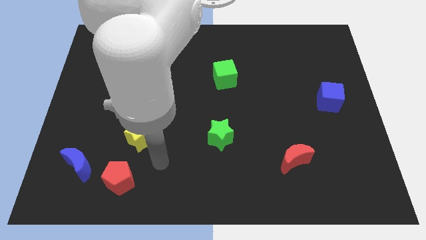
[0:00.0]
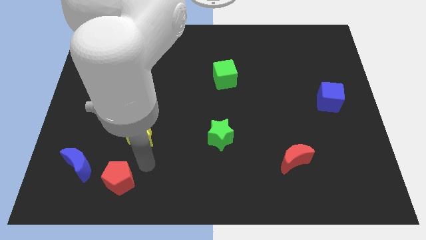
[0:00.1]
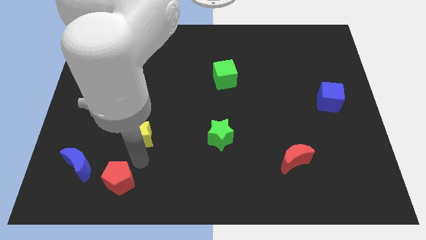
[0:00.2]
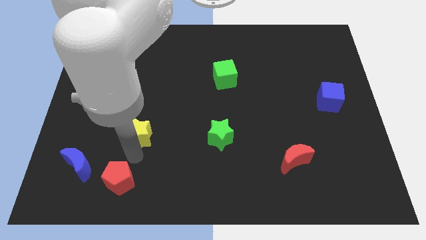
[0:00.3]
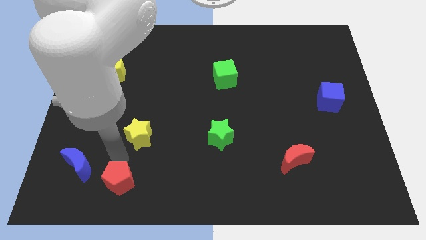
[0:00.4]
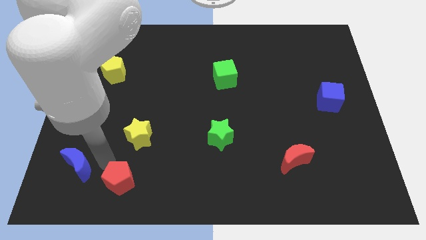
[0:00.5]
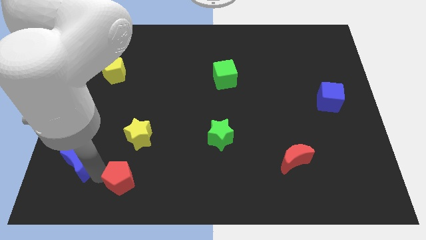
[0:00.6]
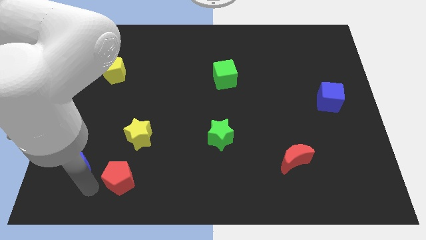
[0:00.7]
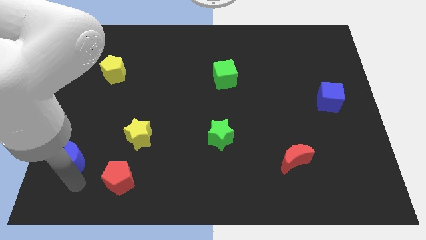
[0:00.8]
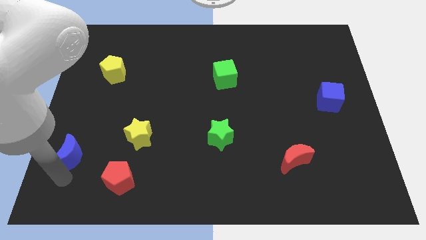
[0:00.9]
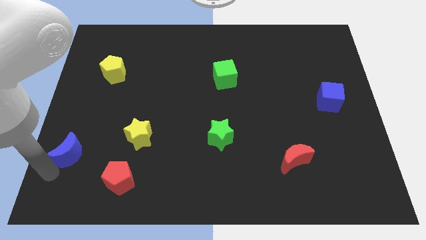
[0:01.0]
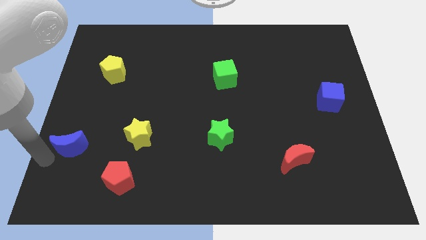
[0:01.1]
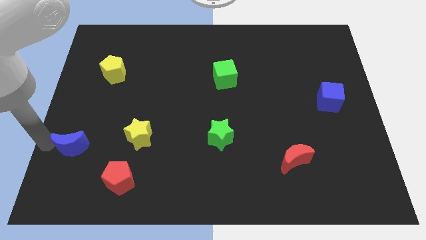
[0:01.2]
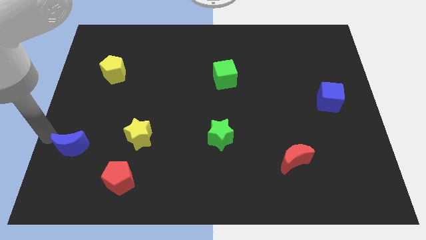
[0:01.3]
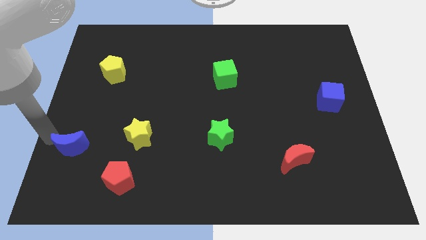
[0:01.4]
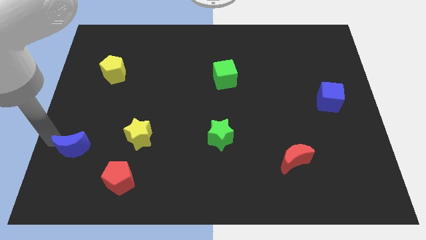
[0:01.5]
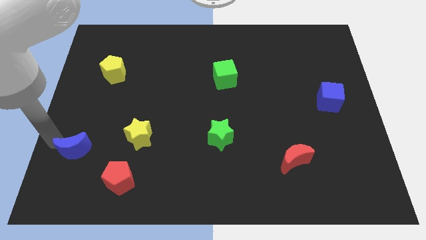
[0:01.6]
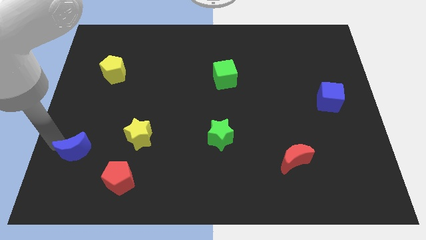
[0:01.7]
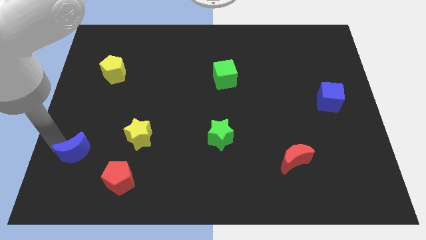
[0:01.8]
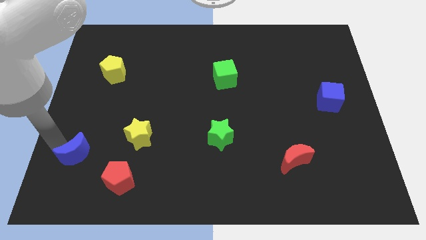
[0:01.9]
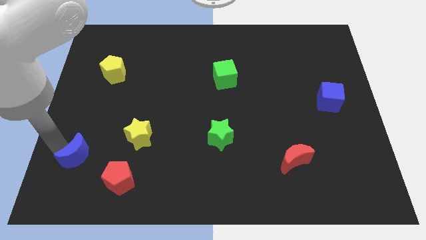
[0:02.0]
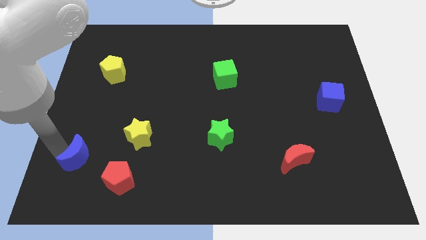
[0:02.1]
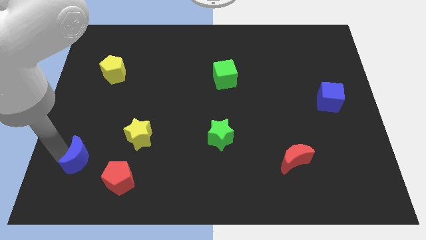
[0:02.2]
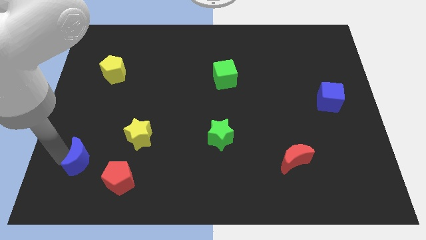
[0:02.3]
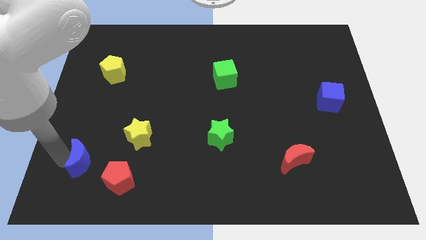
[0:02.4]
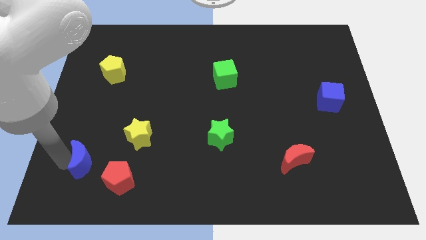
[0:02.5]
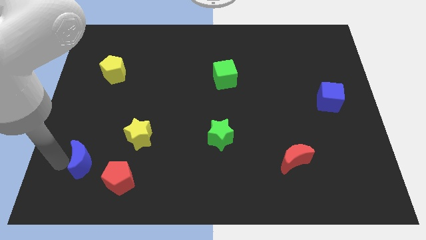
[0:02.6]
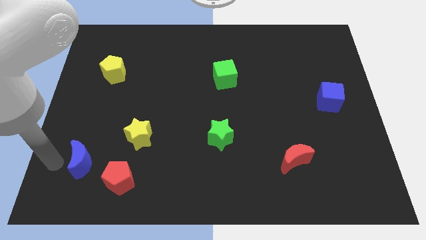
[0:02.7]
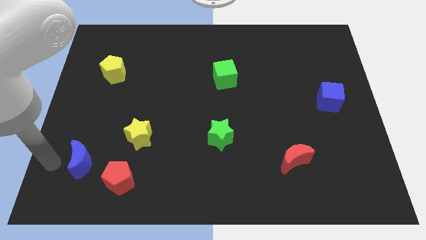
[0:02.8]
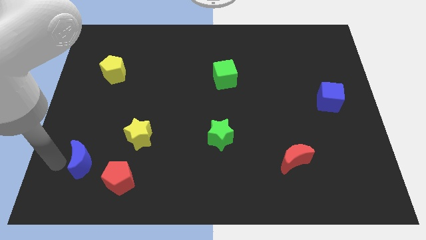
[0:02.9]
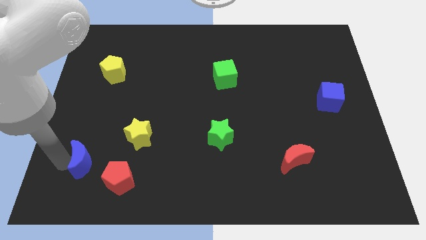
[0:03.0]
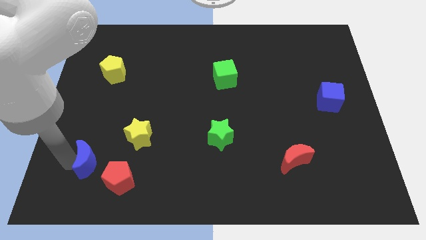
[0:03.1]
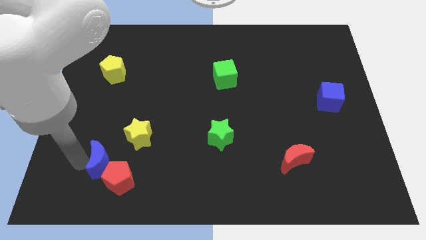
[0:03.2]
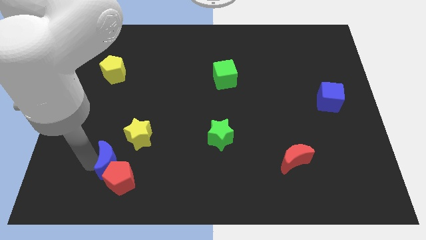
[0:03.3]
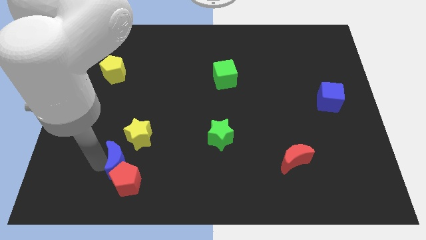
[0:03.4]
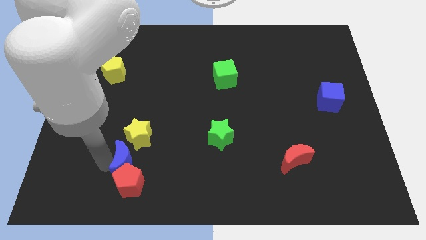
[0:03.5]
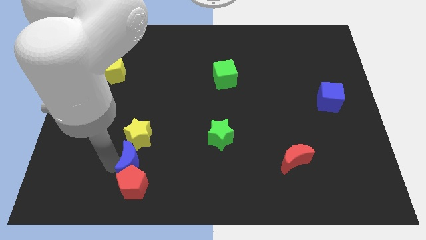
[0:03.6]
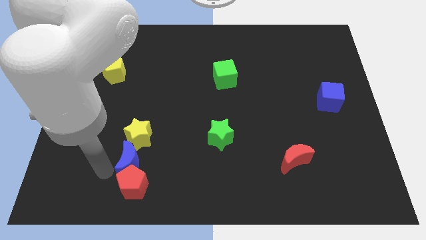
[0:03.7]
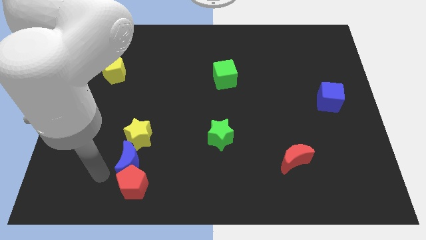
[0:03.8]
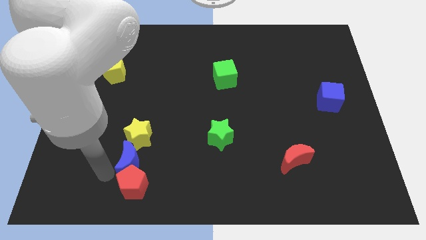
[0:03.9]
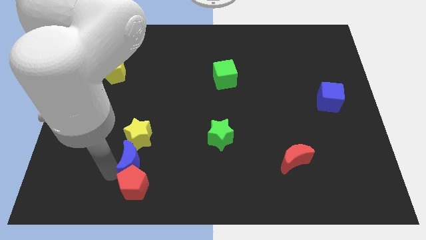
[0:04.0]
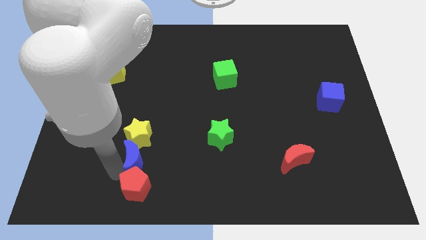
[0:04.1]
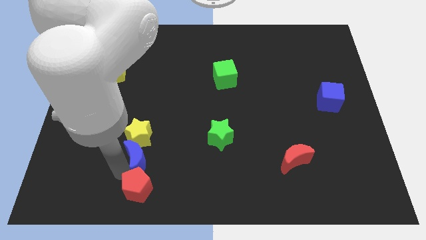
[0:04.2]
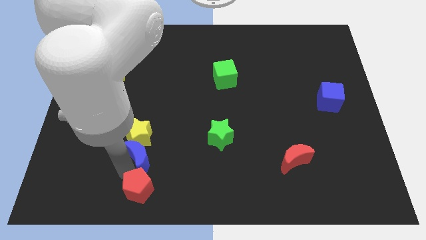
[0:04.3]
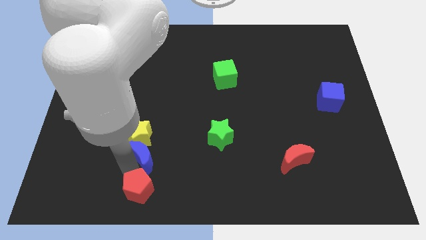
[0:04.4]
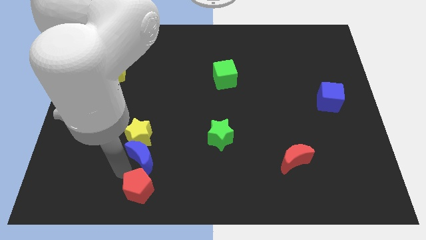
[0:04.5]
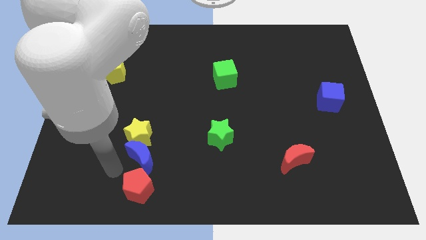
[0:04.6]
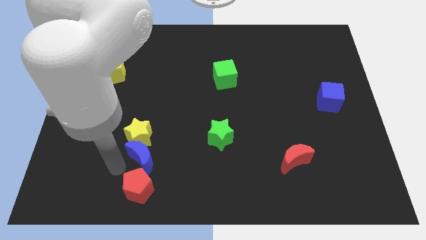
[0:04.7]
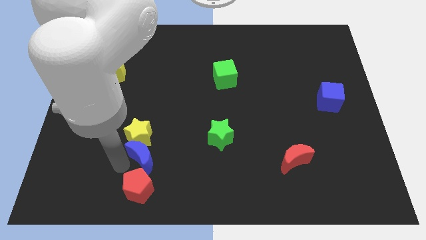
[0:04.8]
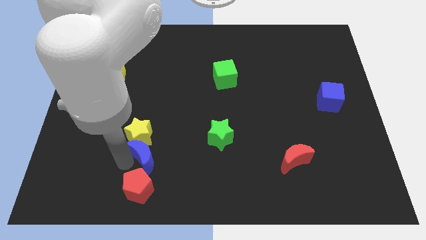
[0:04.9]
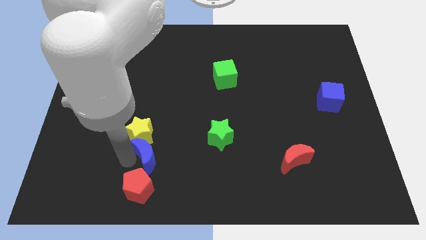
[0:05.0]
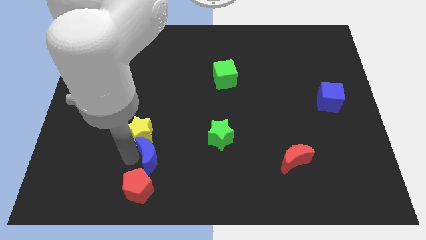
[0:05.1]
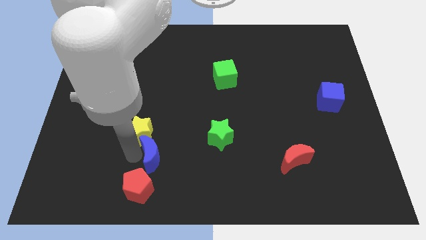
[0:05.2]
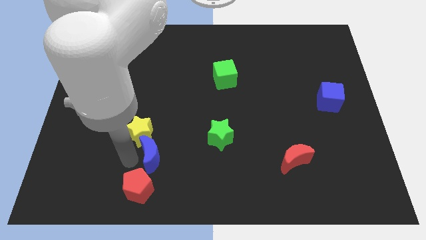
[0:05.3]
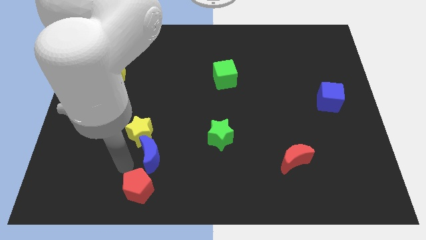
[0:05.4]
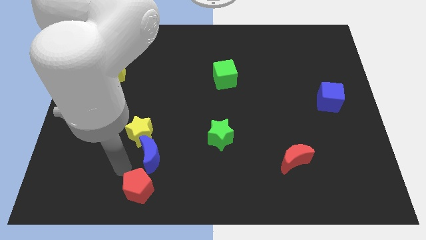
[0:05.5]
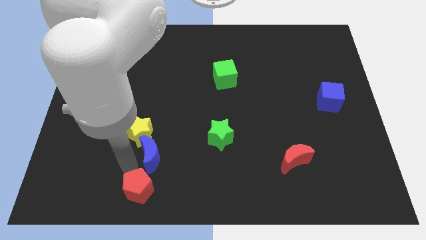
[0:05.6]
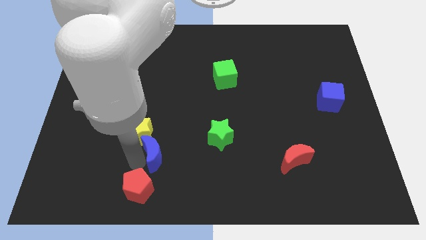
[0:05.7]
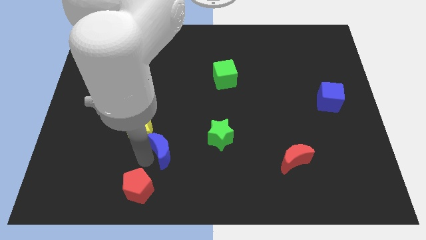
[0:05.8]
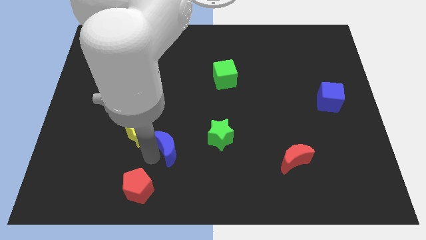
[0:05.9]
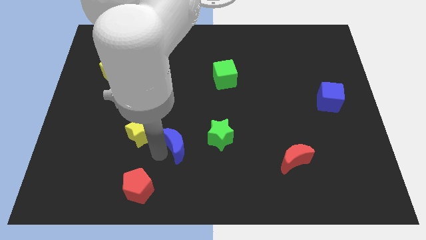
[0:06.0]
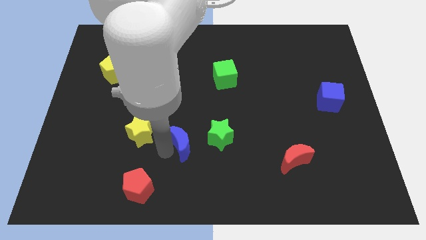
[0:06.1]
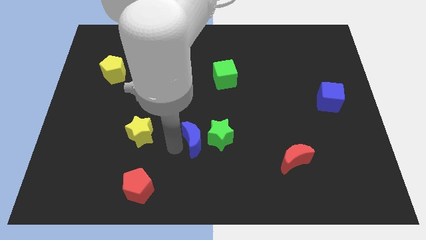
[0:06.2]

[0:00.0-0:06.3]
move the blue moon next to the green star

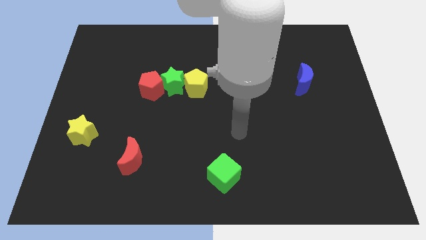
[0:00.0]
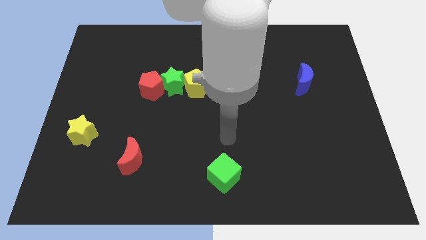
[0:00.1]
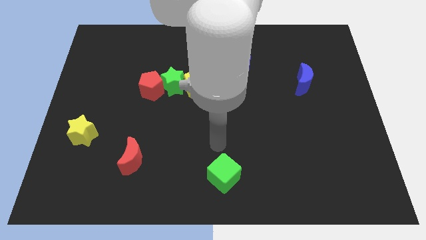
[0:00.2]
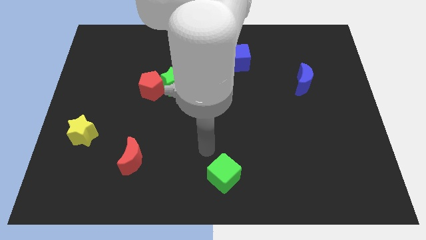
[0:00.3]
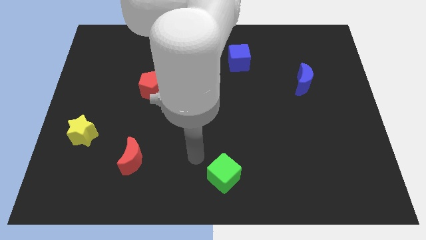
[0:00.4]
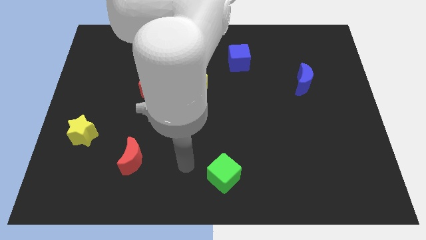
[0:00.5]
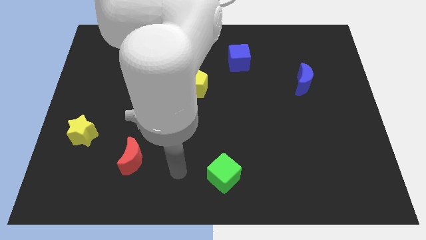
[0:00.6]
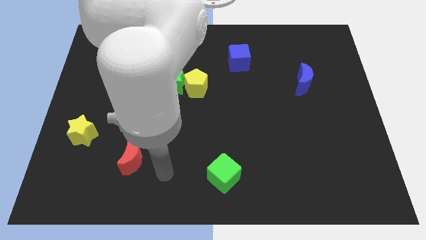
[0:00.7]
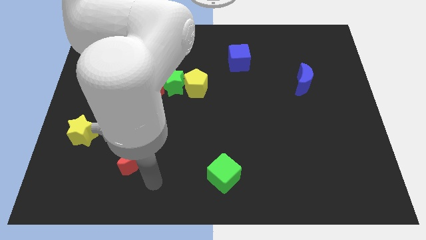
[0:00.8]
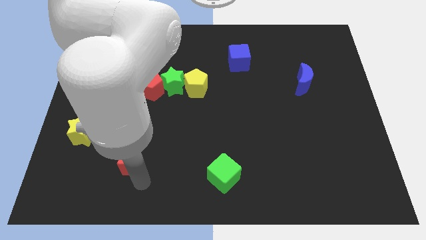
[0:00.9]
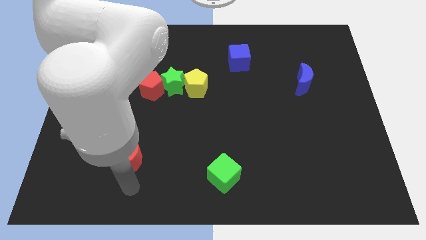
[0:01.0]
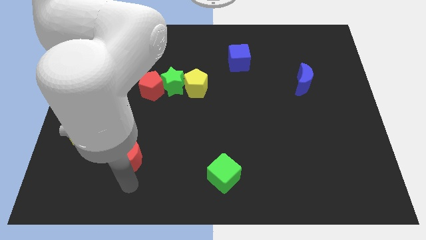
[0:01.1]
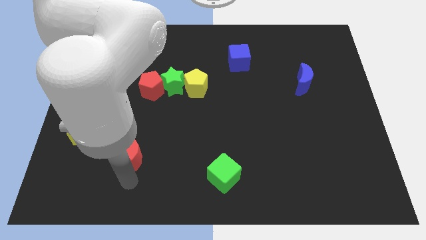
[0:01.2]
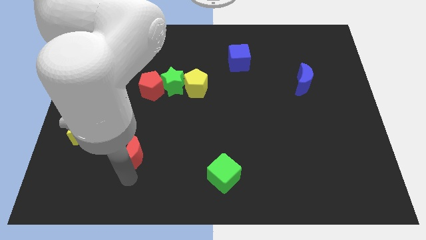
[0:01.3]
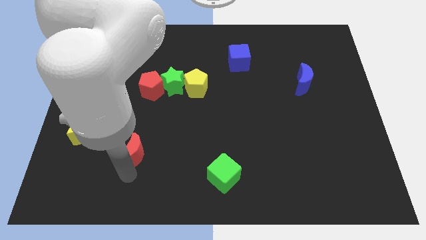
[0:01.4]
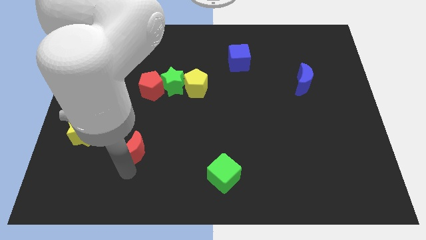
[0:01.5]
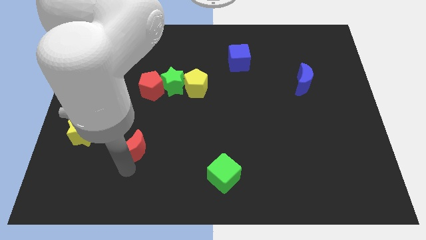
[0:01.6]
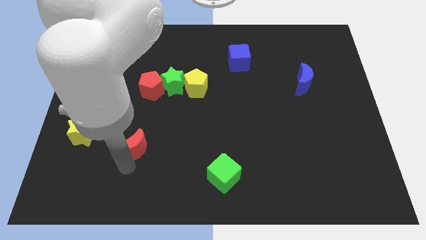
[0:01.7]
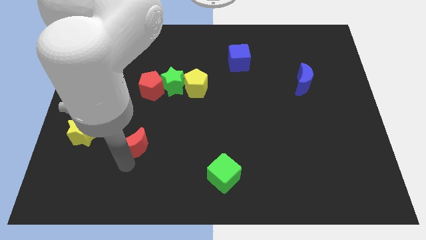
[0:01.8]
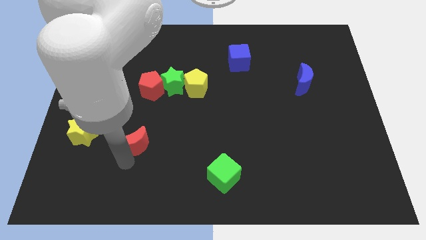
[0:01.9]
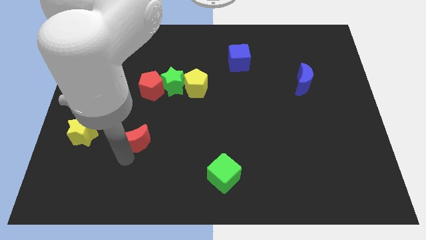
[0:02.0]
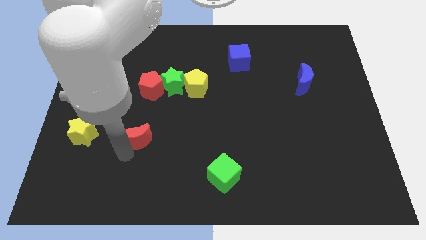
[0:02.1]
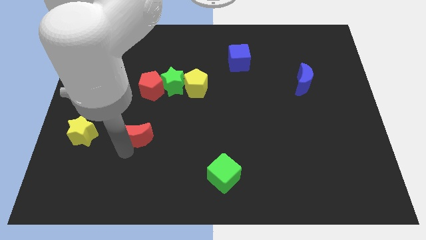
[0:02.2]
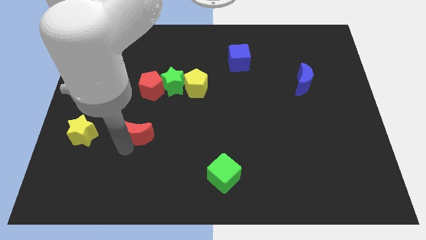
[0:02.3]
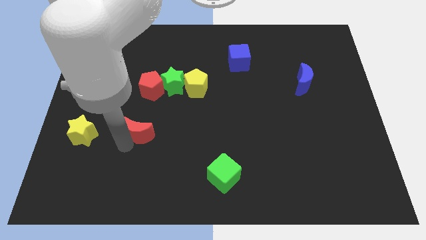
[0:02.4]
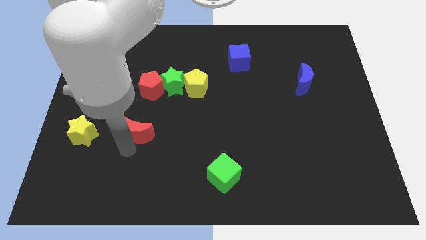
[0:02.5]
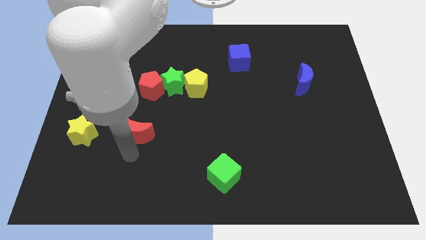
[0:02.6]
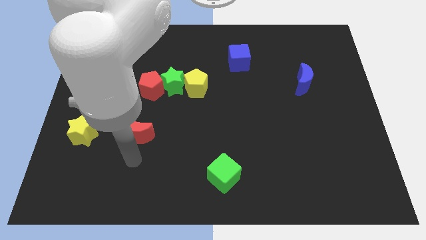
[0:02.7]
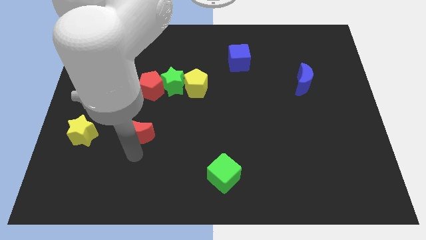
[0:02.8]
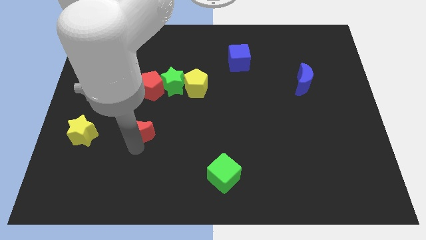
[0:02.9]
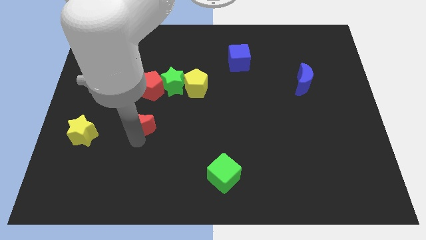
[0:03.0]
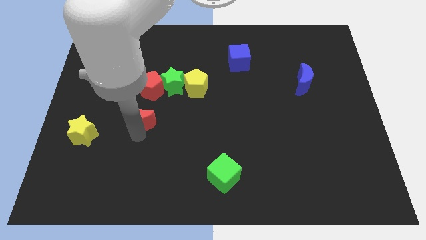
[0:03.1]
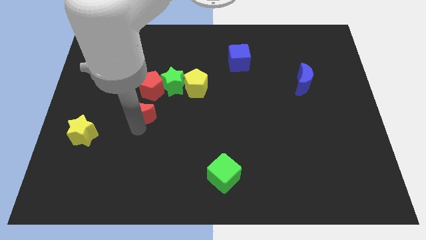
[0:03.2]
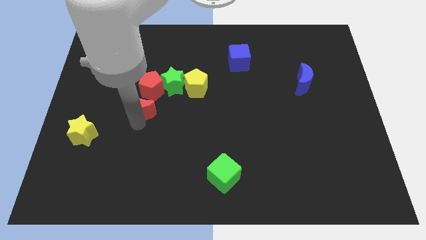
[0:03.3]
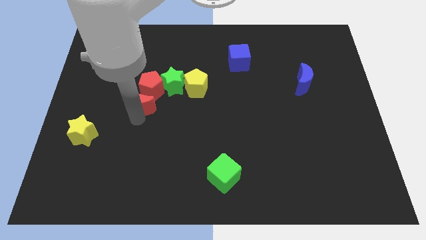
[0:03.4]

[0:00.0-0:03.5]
push the red moon to the red pentagon
